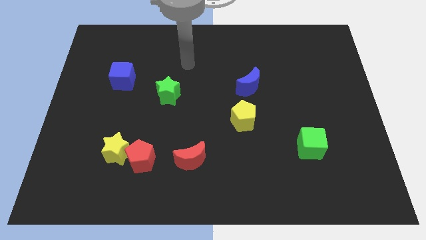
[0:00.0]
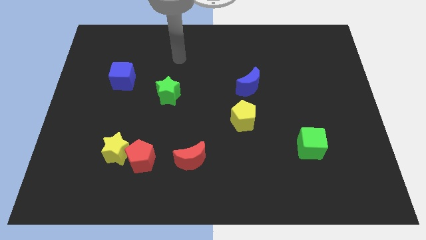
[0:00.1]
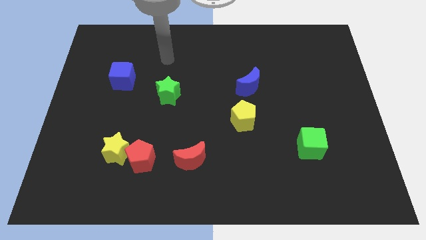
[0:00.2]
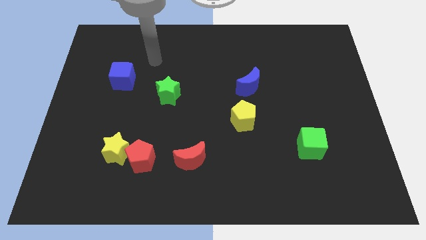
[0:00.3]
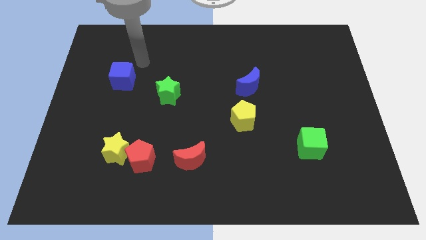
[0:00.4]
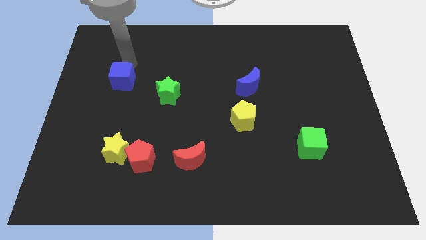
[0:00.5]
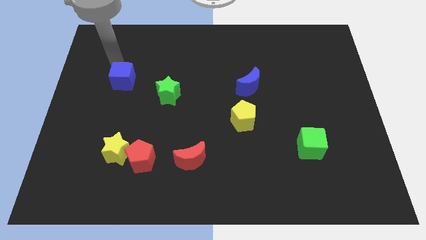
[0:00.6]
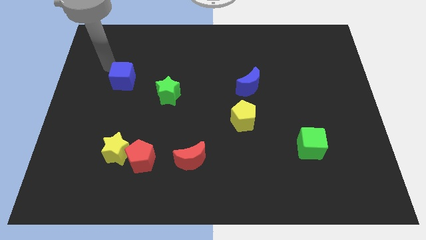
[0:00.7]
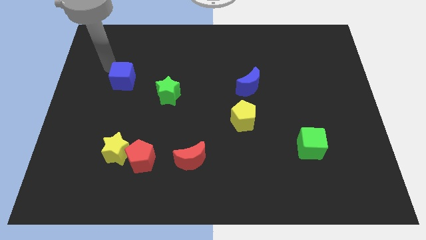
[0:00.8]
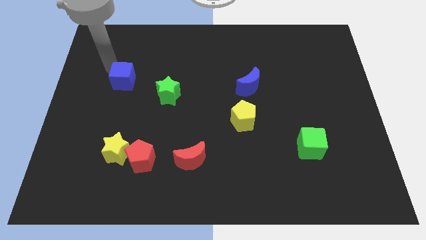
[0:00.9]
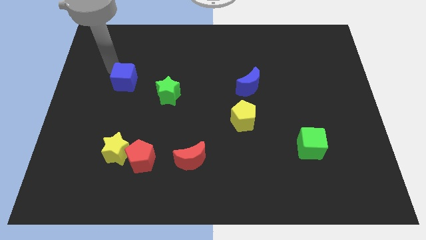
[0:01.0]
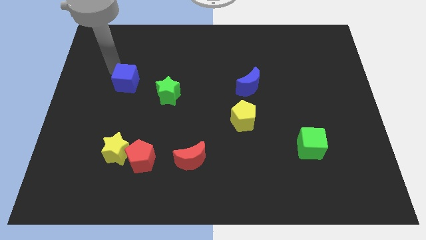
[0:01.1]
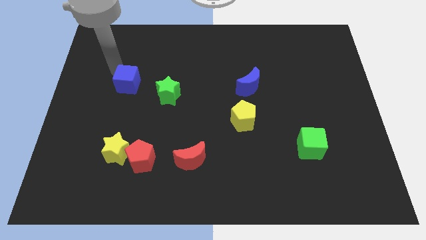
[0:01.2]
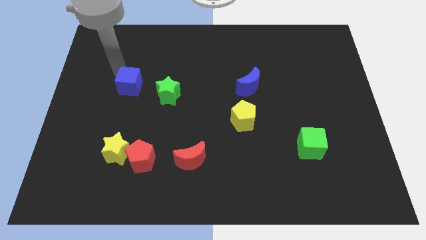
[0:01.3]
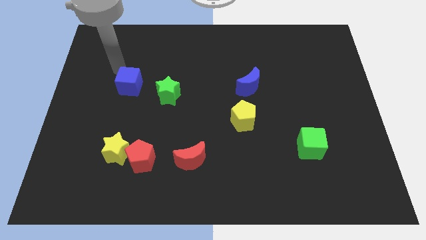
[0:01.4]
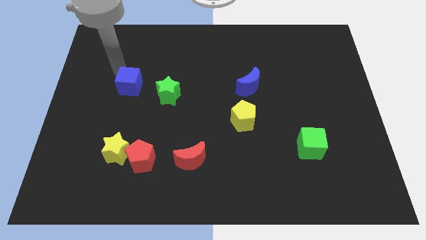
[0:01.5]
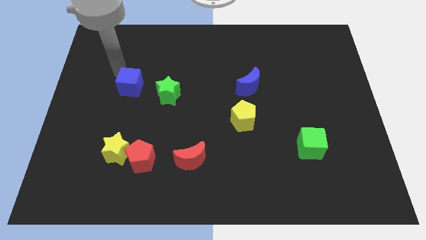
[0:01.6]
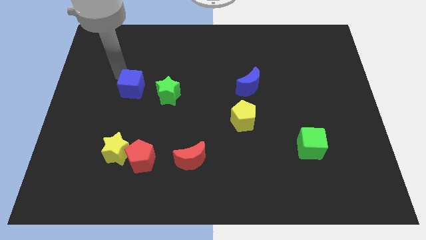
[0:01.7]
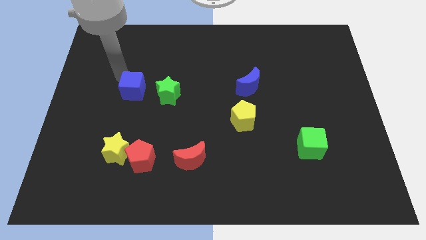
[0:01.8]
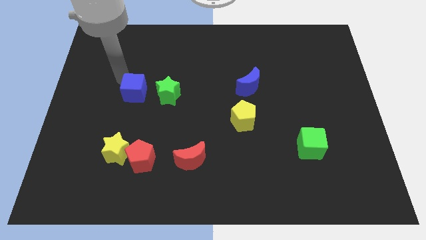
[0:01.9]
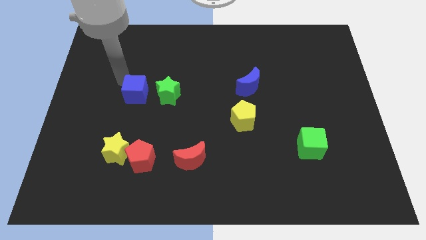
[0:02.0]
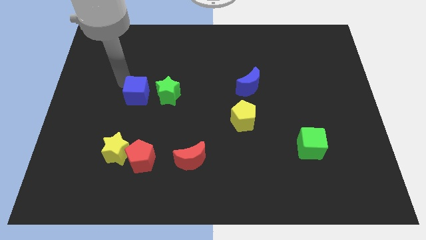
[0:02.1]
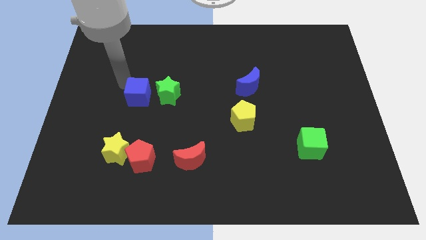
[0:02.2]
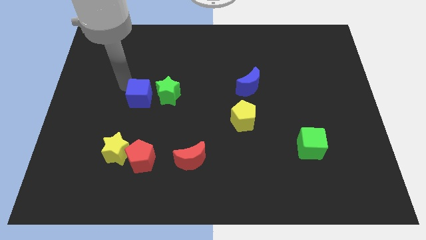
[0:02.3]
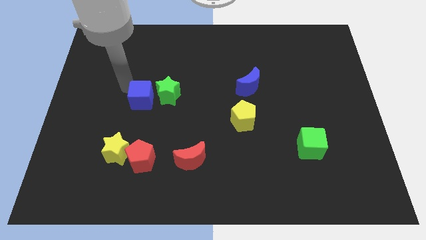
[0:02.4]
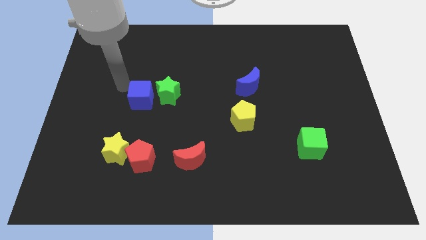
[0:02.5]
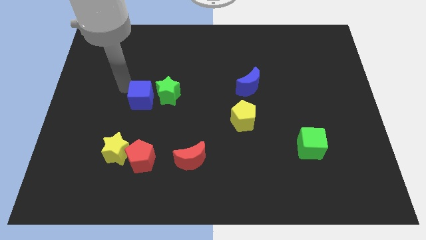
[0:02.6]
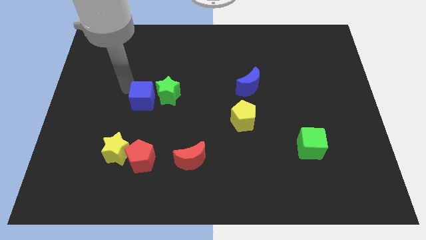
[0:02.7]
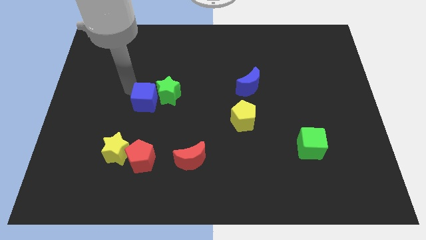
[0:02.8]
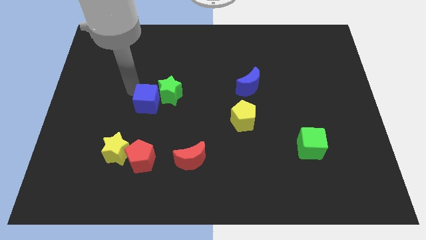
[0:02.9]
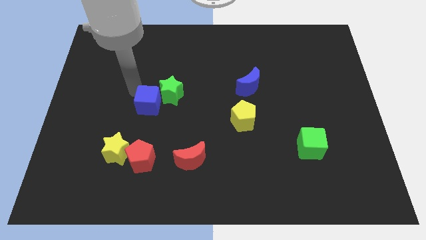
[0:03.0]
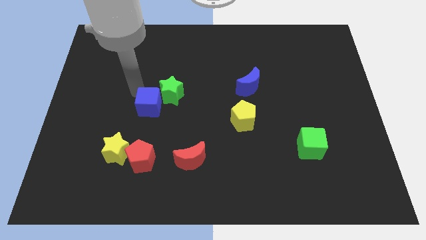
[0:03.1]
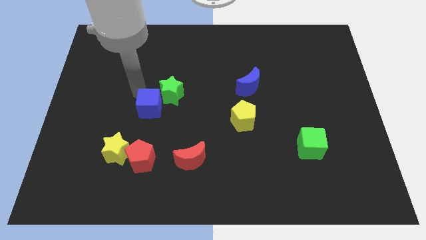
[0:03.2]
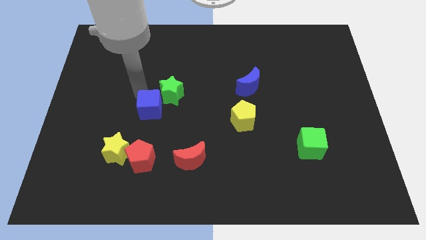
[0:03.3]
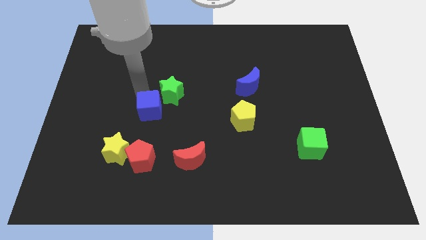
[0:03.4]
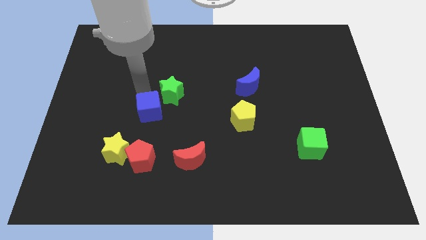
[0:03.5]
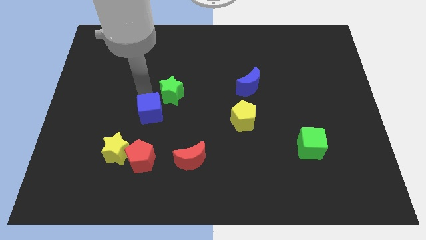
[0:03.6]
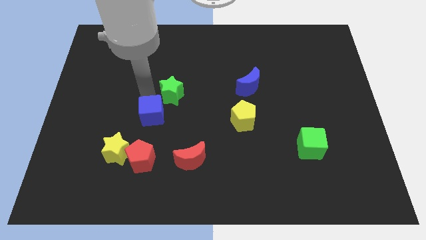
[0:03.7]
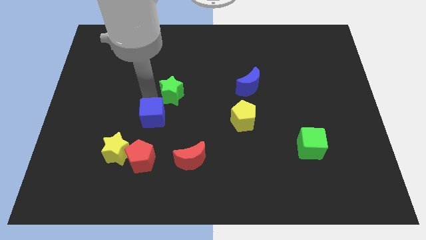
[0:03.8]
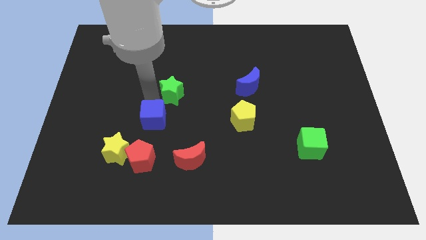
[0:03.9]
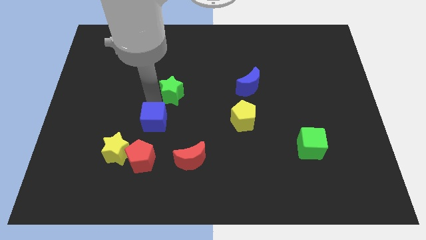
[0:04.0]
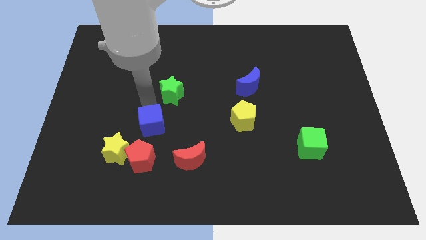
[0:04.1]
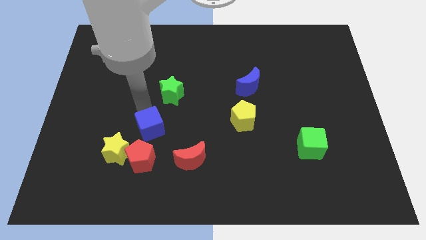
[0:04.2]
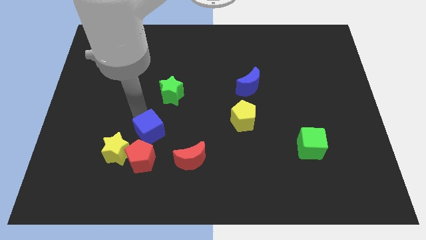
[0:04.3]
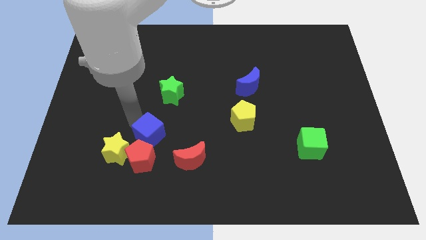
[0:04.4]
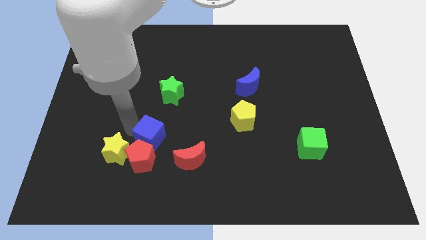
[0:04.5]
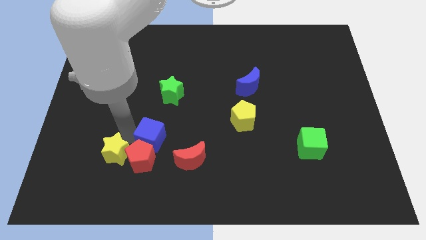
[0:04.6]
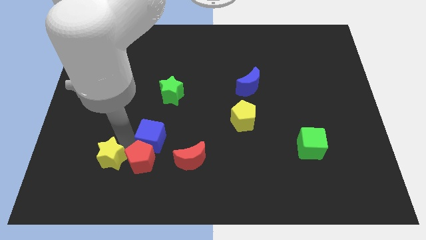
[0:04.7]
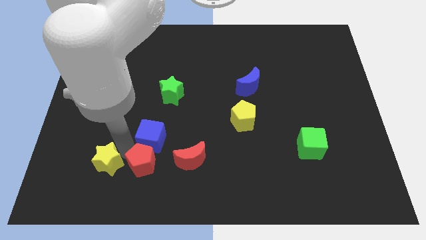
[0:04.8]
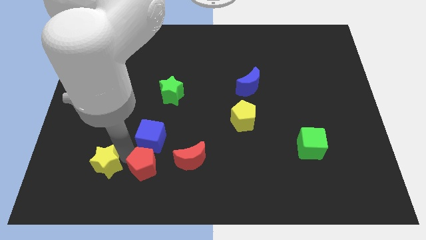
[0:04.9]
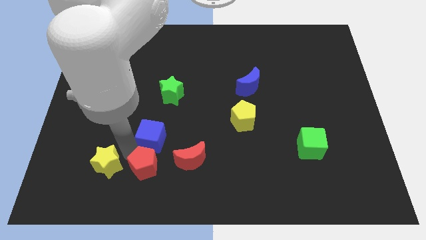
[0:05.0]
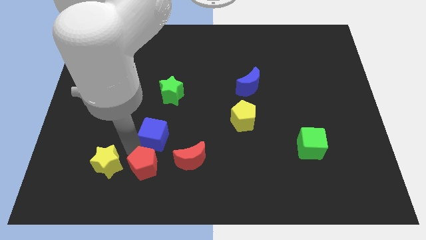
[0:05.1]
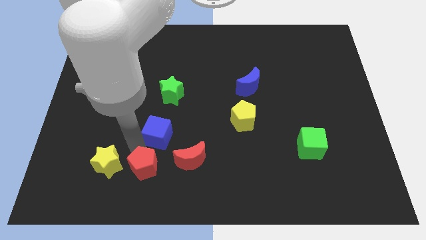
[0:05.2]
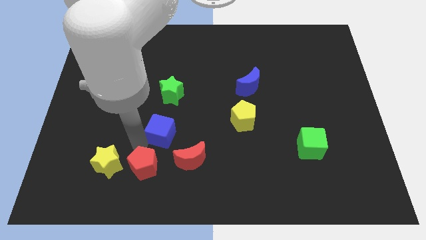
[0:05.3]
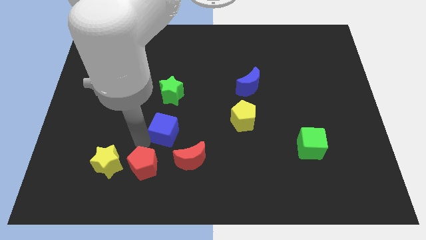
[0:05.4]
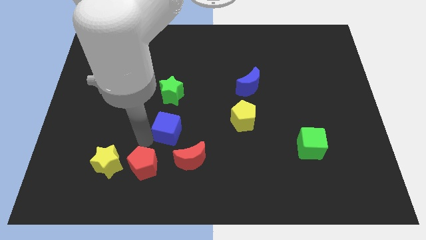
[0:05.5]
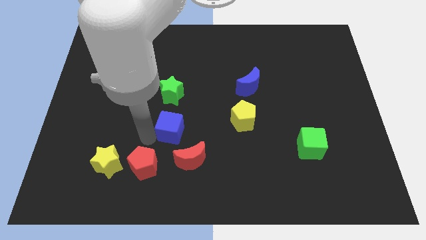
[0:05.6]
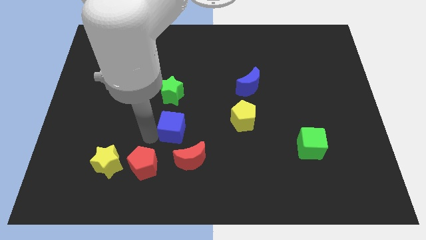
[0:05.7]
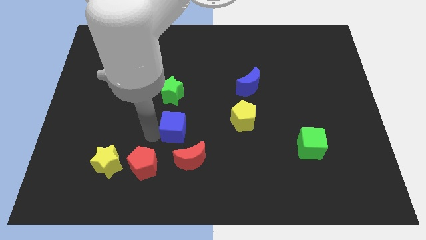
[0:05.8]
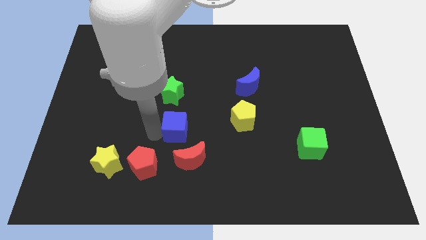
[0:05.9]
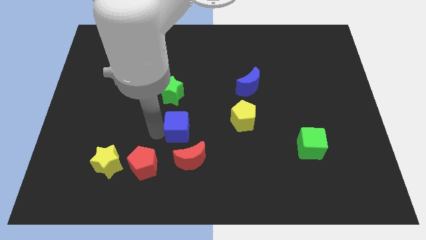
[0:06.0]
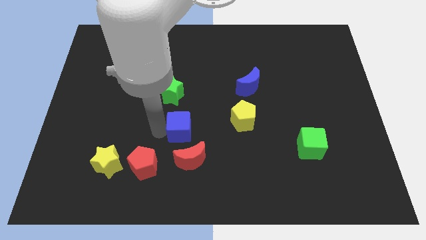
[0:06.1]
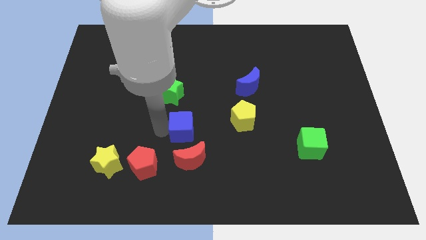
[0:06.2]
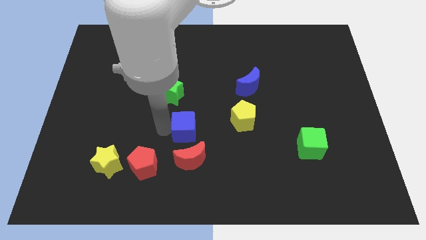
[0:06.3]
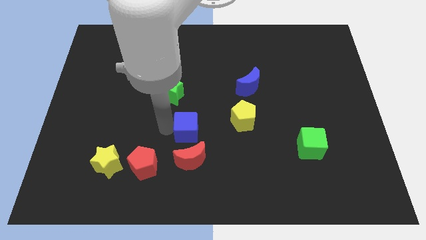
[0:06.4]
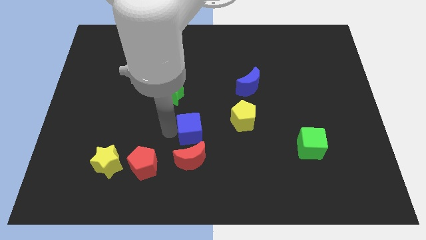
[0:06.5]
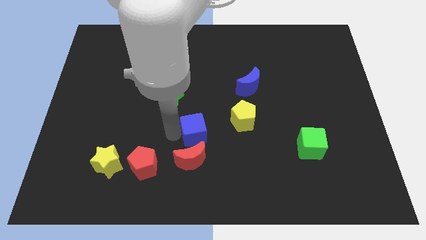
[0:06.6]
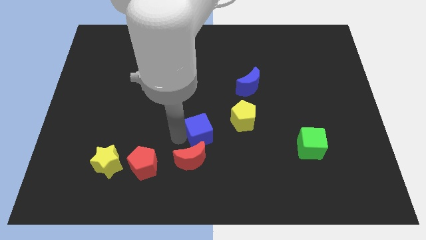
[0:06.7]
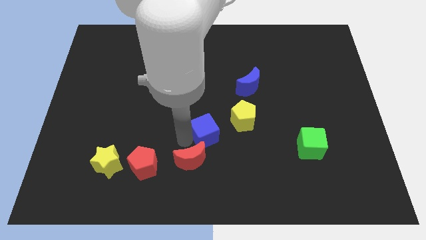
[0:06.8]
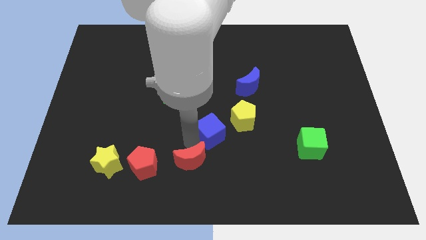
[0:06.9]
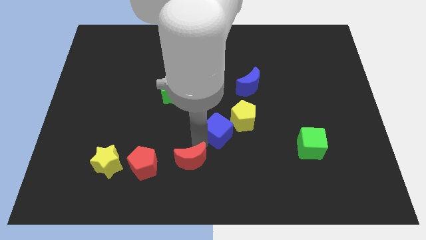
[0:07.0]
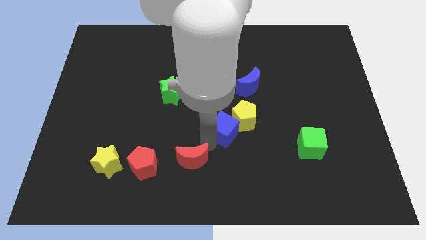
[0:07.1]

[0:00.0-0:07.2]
push the blue cube to the bottom of the yellow pentagon
